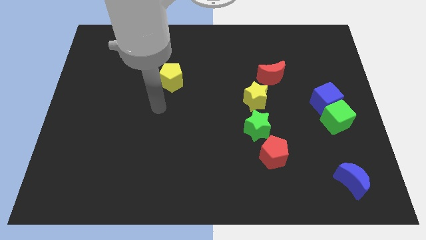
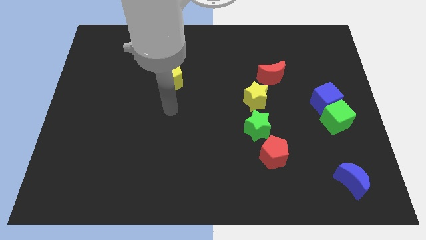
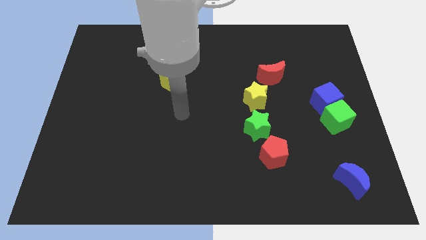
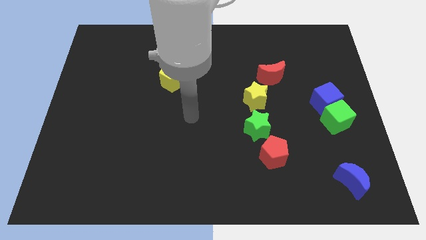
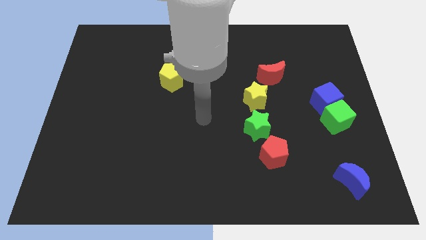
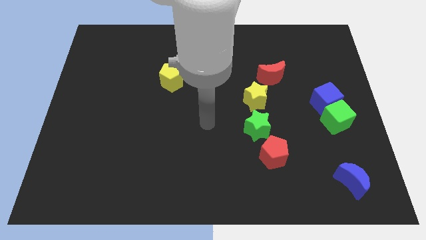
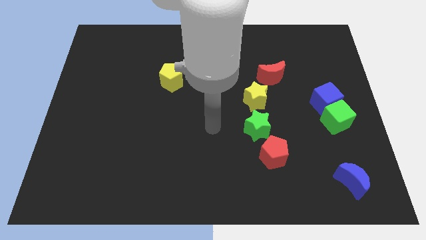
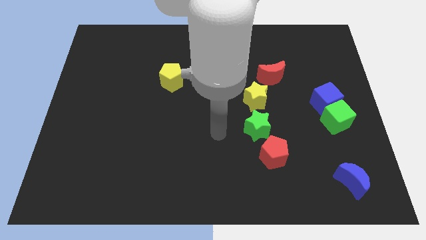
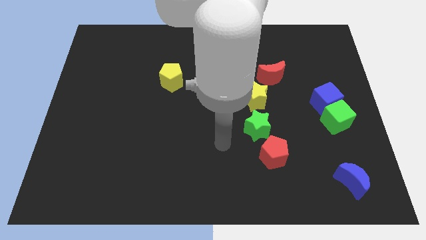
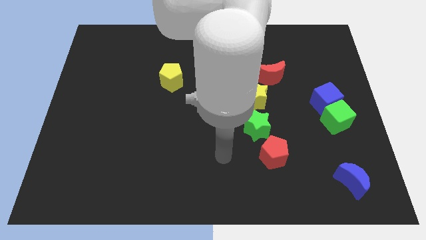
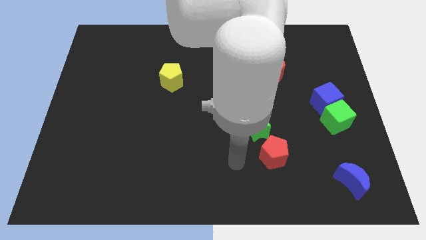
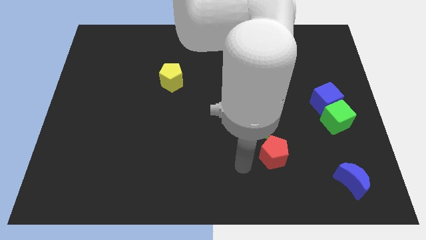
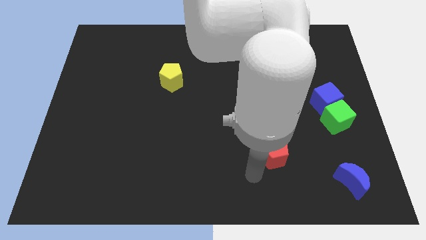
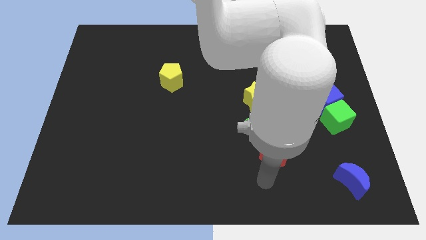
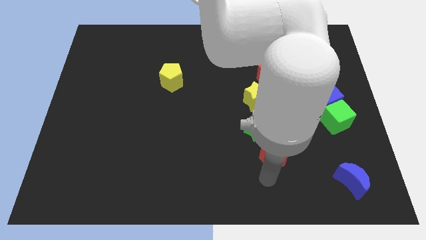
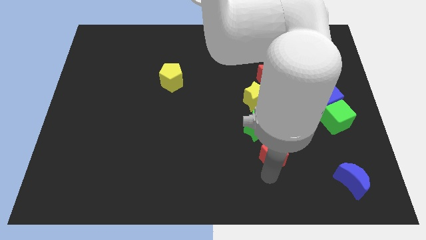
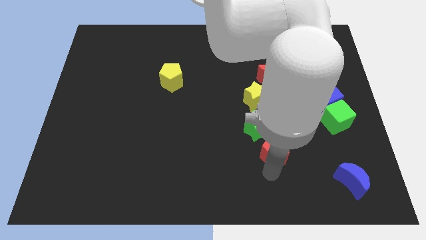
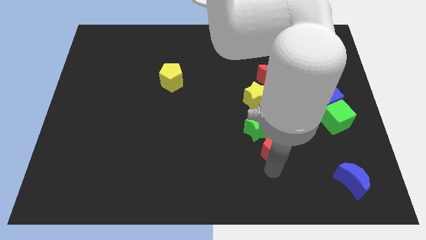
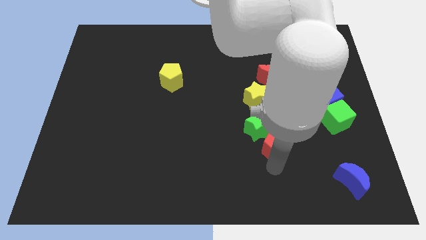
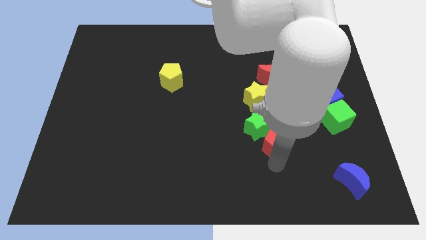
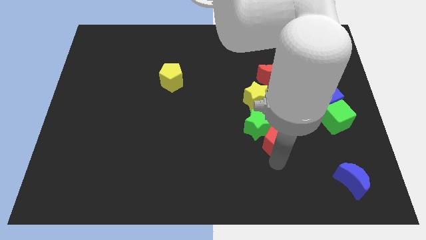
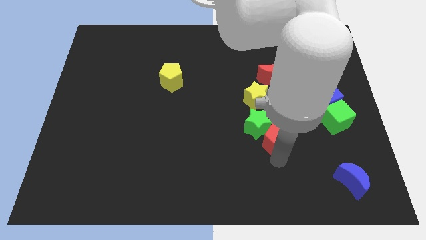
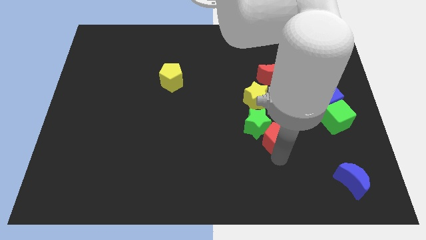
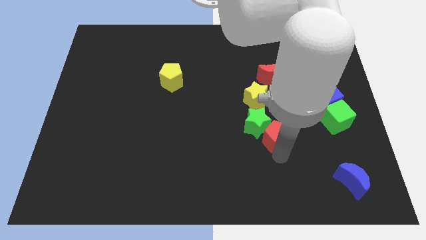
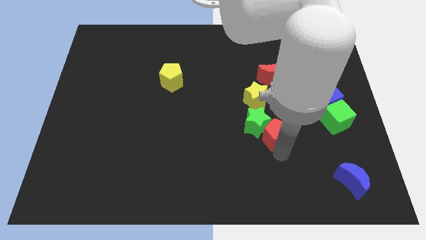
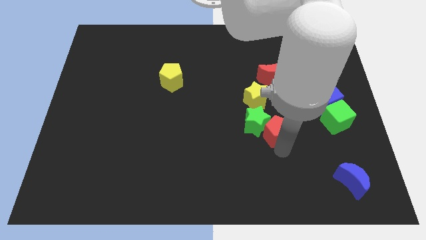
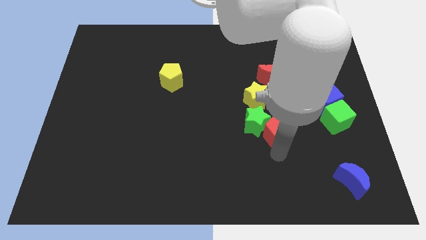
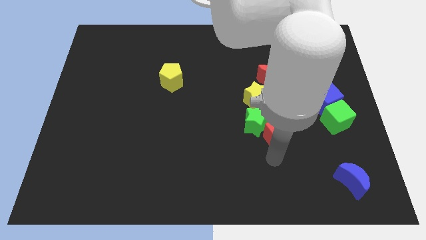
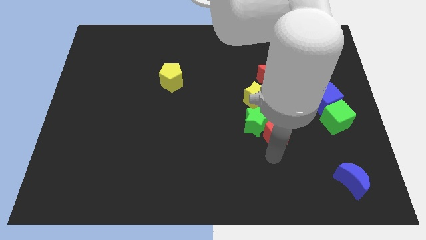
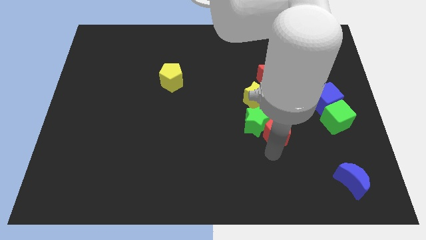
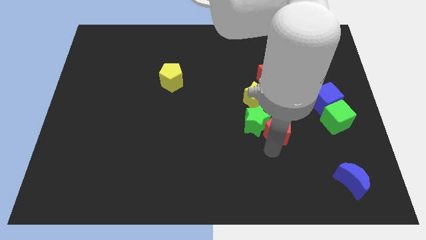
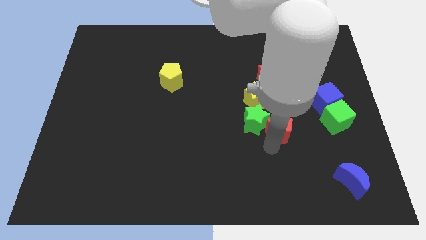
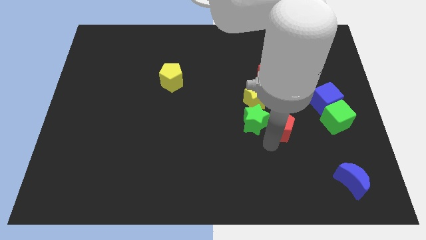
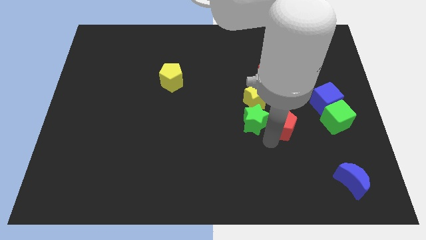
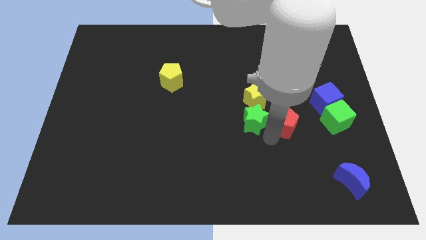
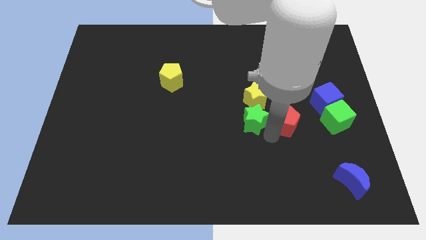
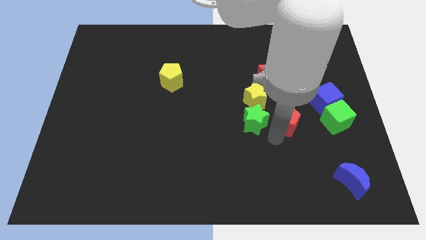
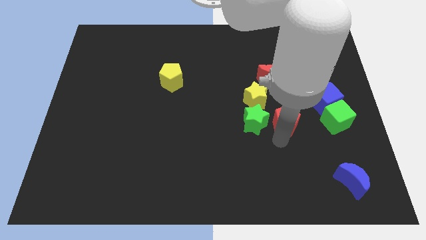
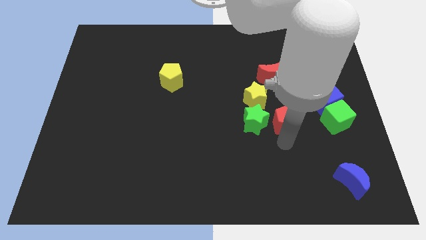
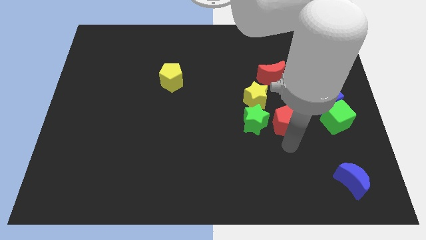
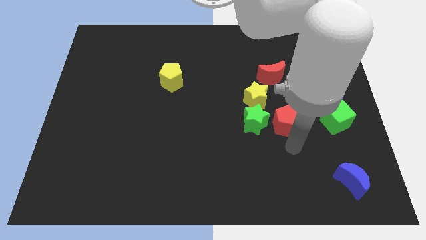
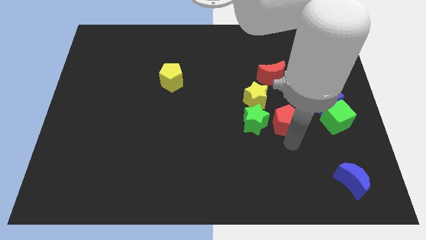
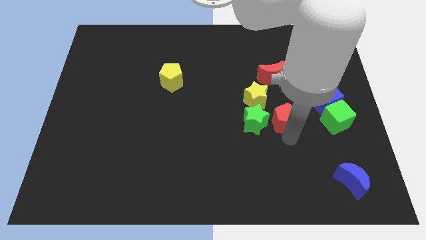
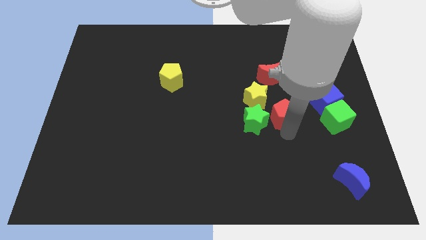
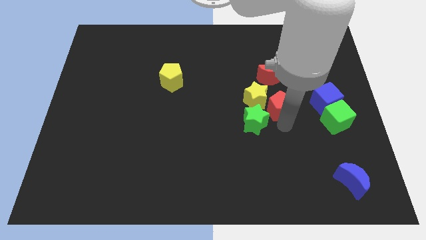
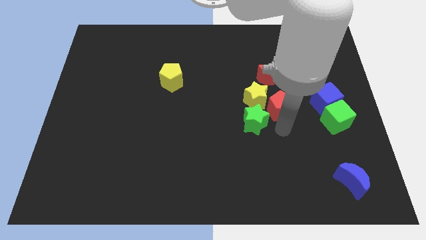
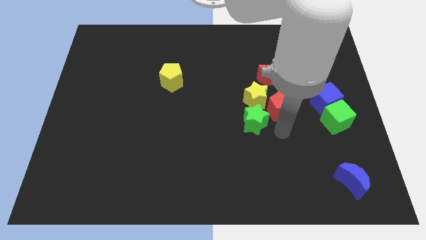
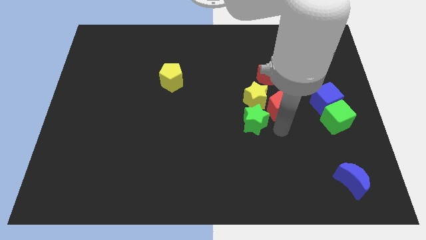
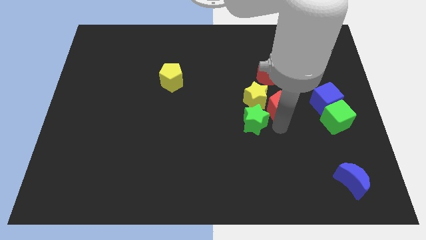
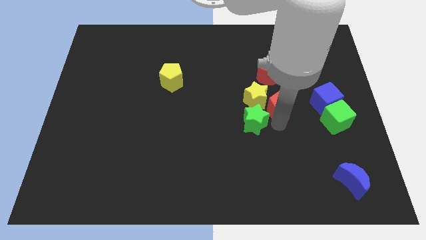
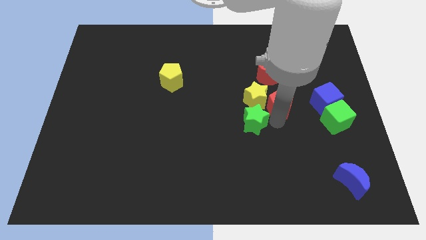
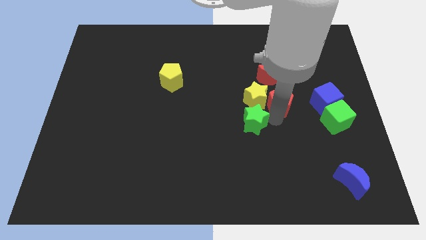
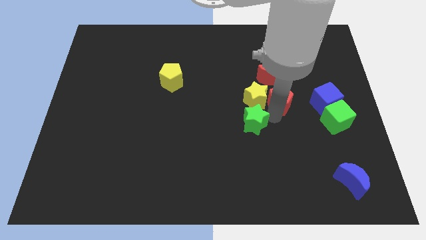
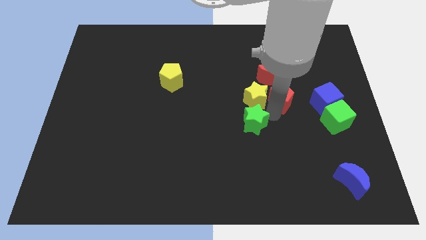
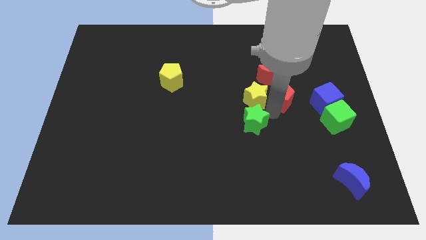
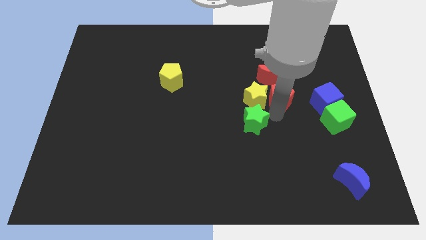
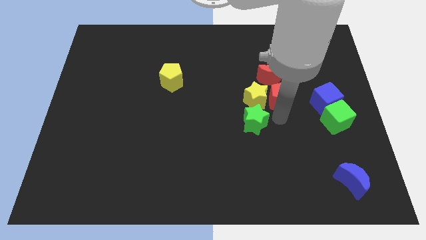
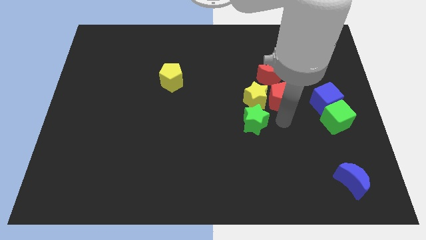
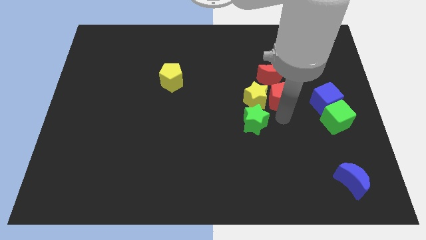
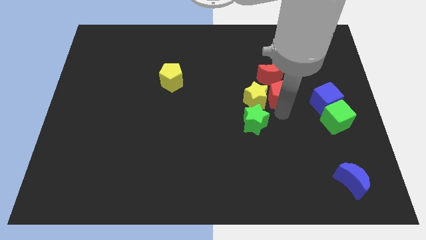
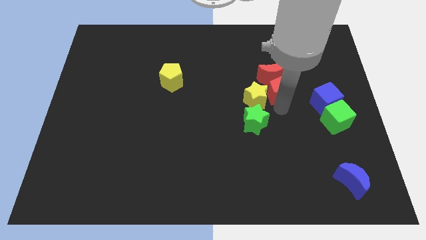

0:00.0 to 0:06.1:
put the red pentagon to the red moon

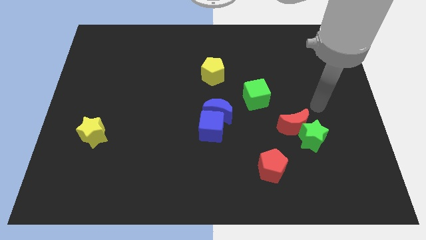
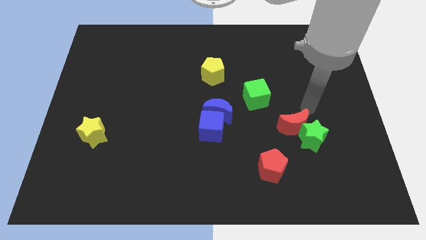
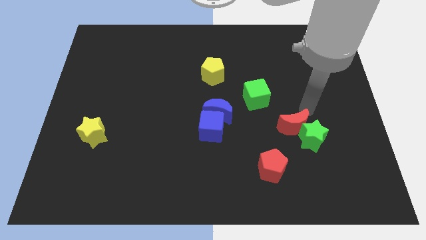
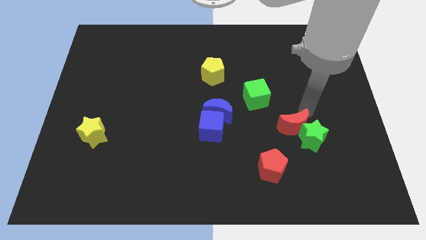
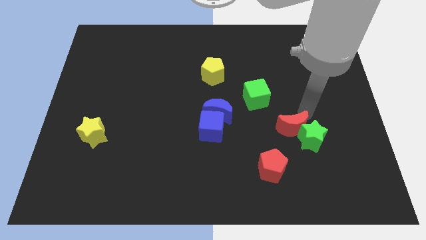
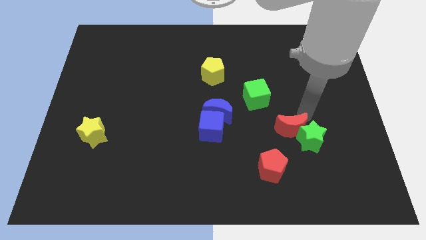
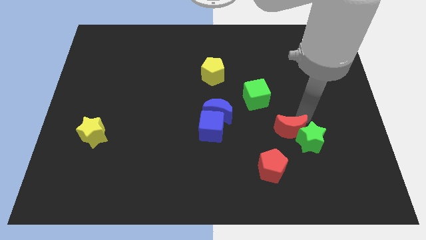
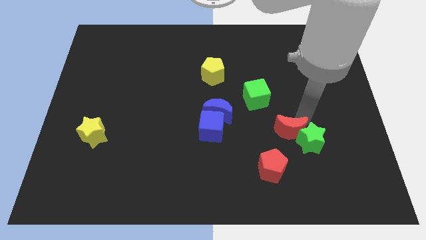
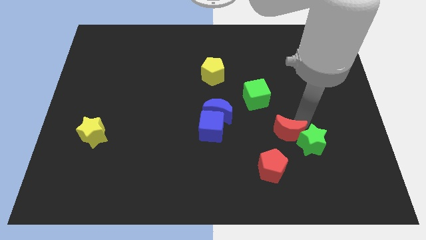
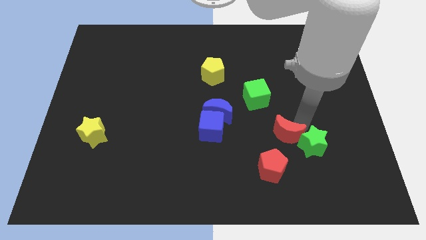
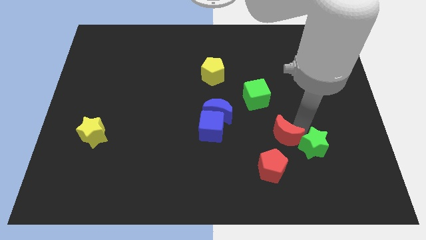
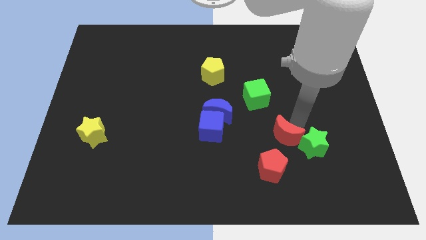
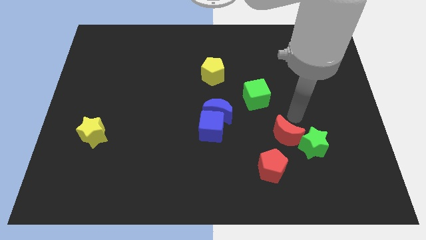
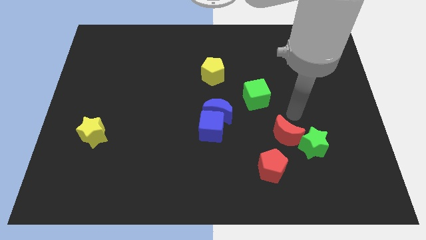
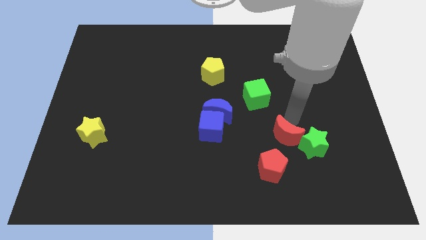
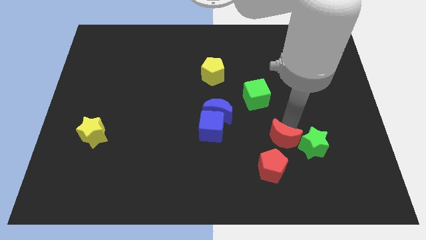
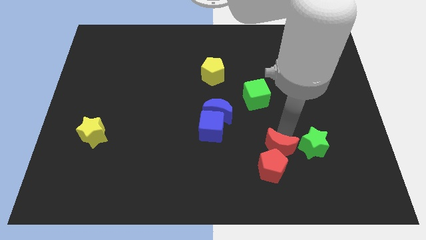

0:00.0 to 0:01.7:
push the red moon next to the red pentagon
